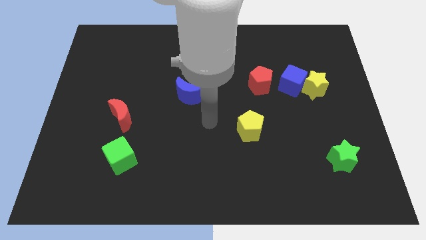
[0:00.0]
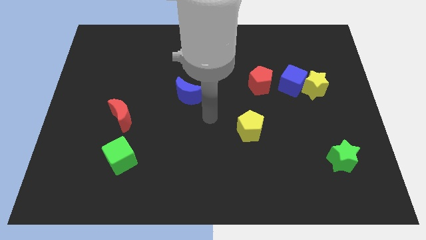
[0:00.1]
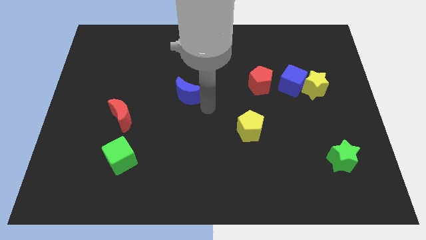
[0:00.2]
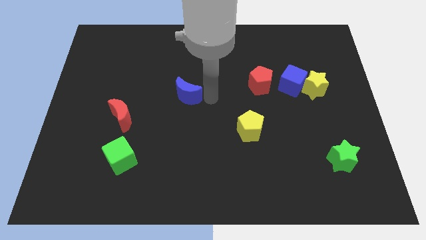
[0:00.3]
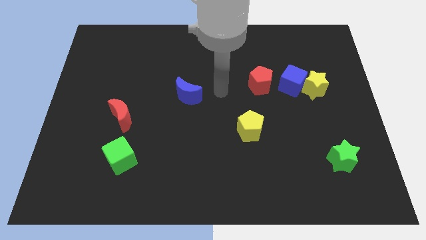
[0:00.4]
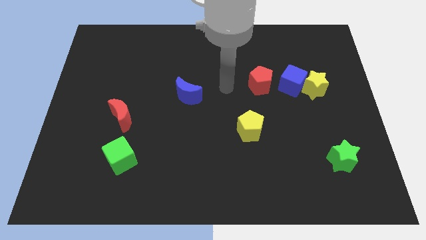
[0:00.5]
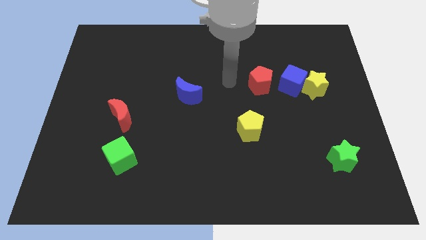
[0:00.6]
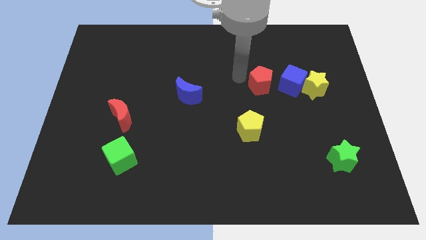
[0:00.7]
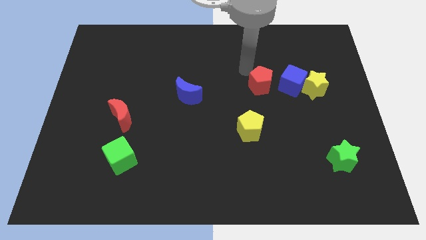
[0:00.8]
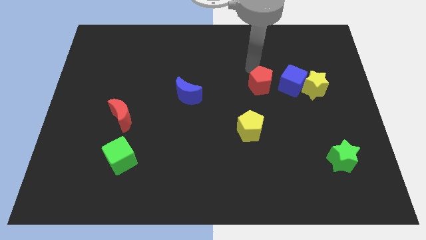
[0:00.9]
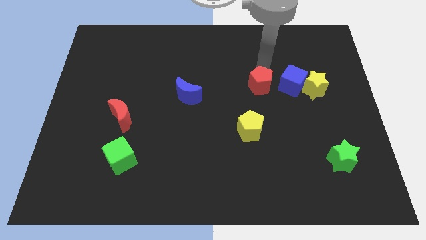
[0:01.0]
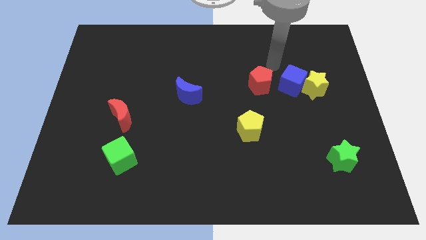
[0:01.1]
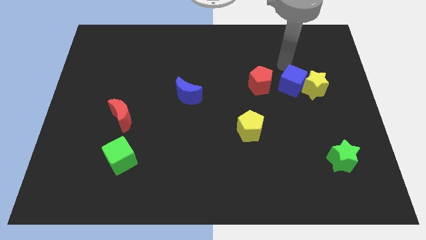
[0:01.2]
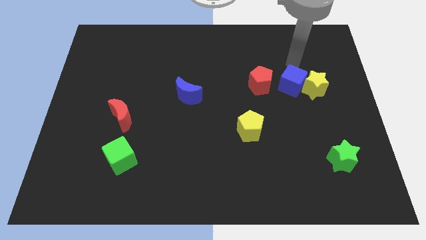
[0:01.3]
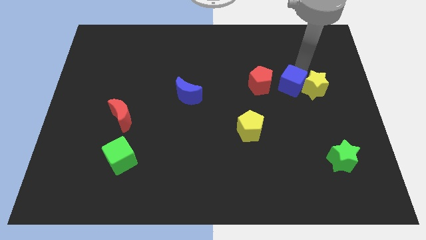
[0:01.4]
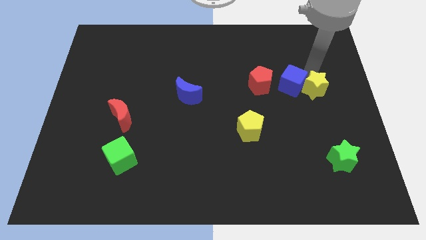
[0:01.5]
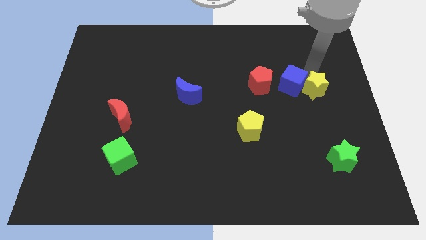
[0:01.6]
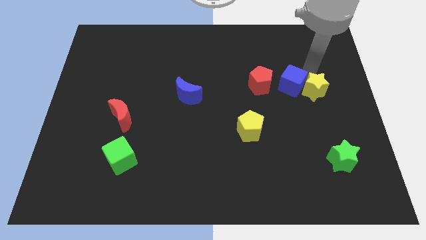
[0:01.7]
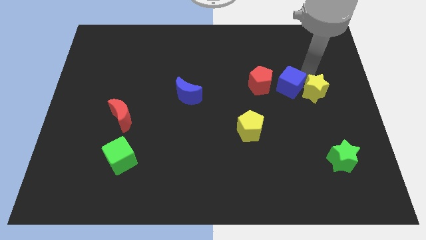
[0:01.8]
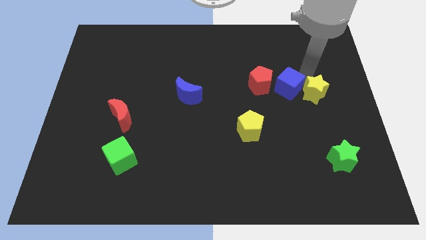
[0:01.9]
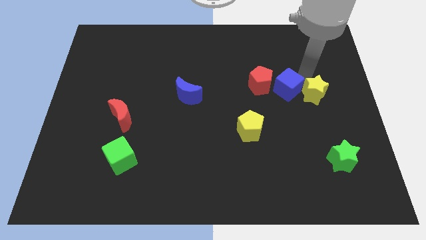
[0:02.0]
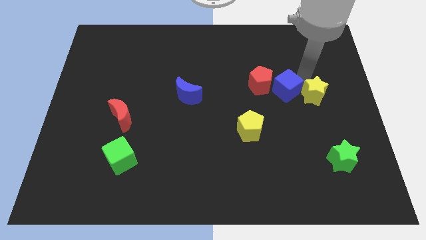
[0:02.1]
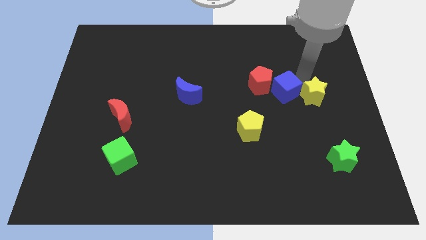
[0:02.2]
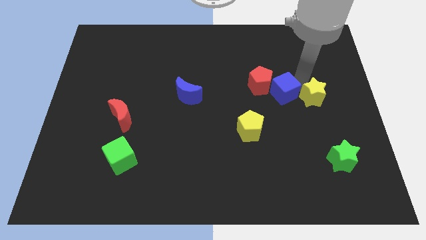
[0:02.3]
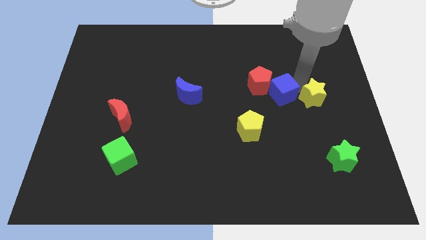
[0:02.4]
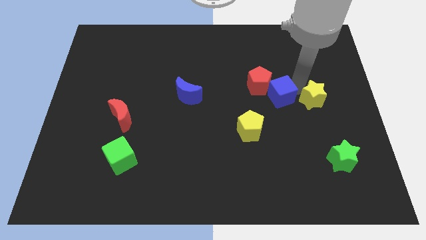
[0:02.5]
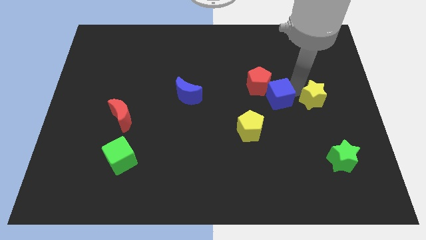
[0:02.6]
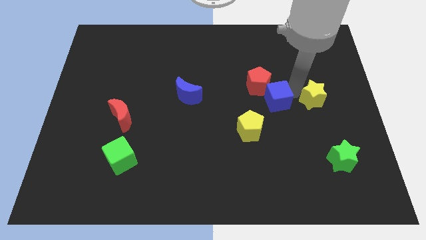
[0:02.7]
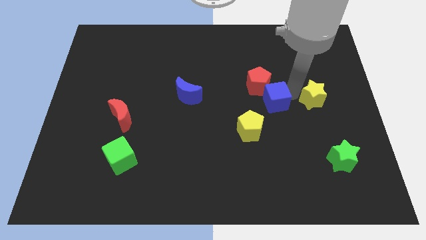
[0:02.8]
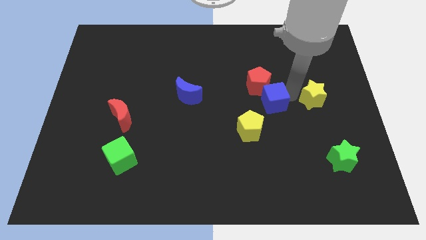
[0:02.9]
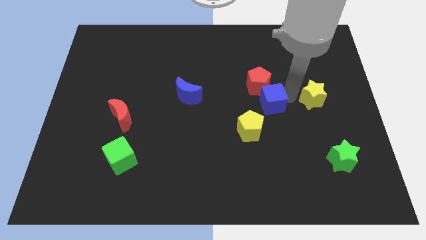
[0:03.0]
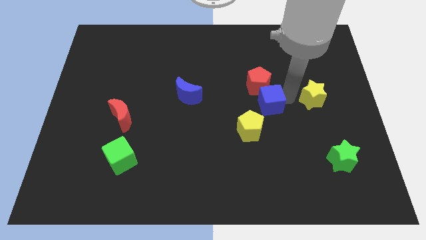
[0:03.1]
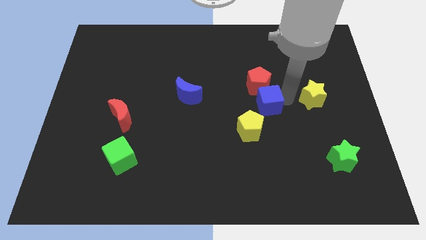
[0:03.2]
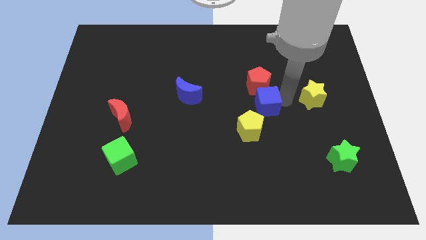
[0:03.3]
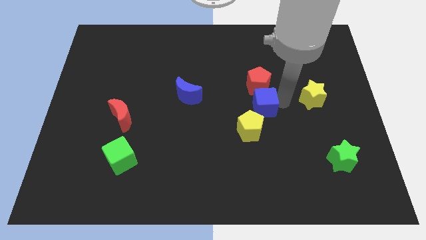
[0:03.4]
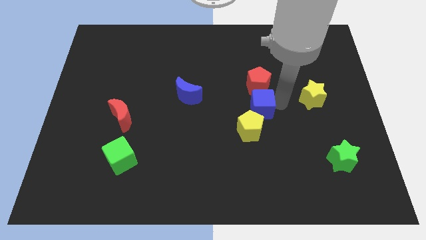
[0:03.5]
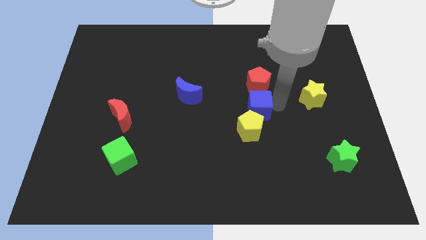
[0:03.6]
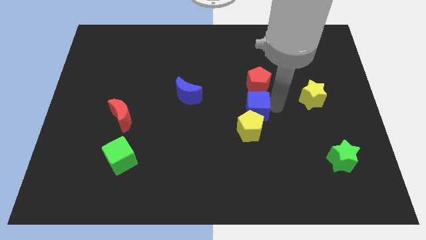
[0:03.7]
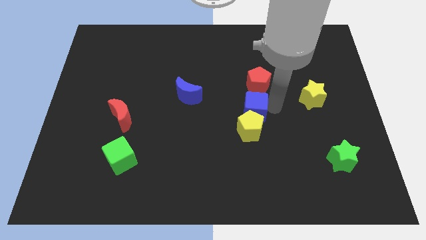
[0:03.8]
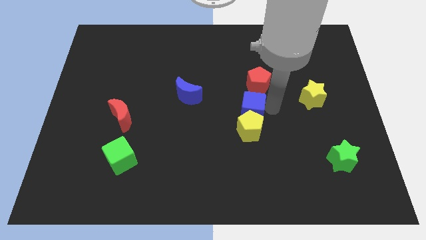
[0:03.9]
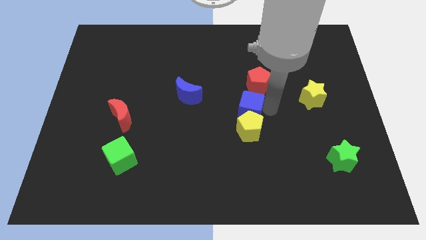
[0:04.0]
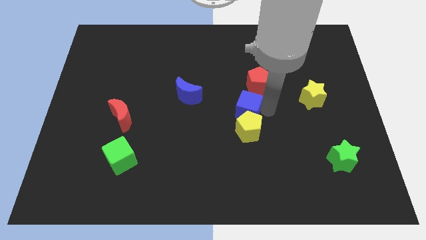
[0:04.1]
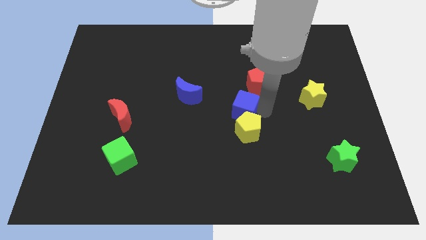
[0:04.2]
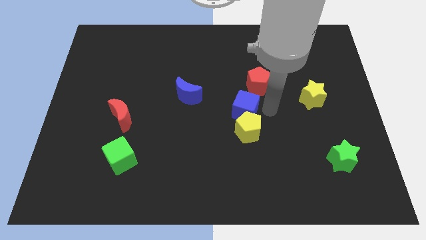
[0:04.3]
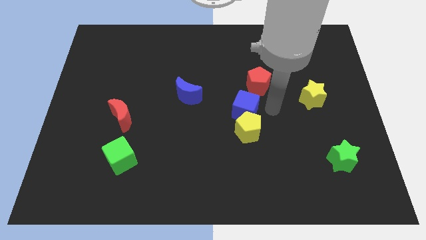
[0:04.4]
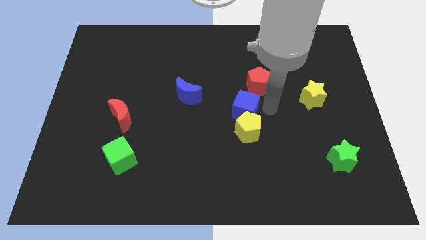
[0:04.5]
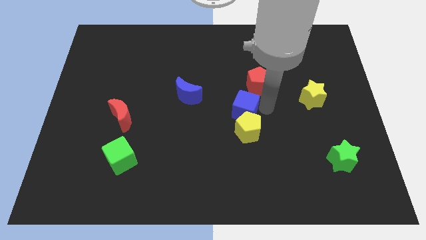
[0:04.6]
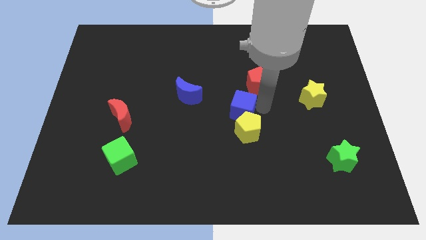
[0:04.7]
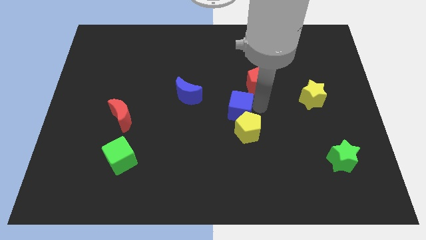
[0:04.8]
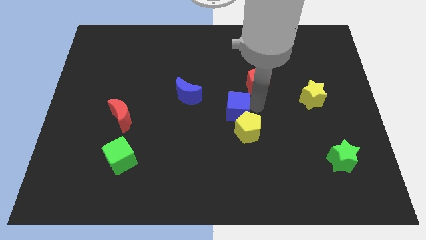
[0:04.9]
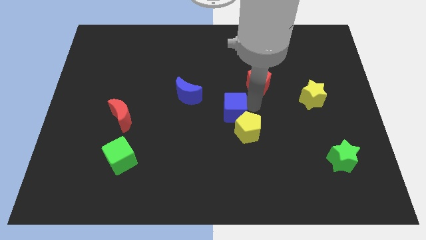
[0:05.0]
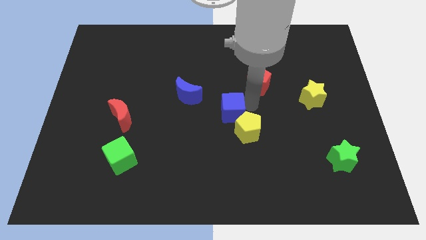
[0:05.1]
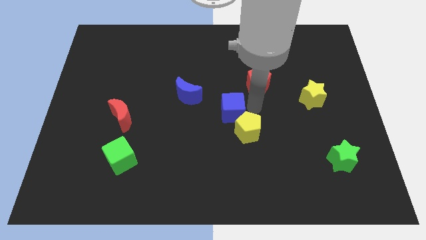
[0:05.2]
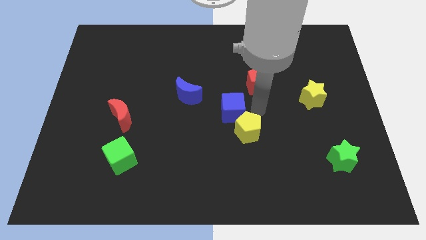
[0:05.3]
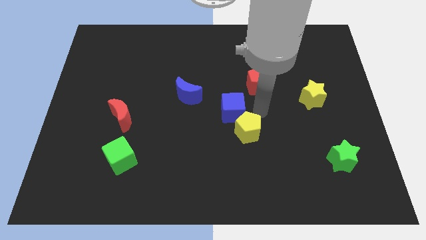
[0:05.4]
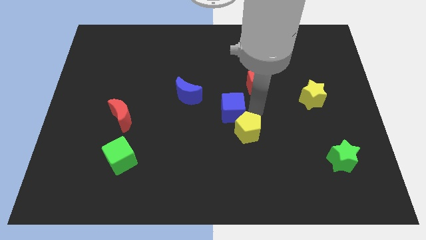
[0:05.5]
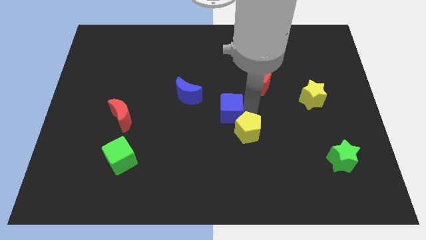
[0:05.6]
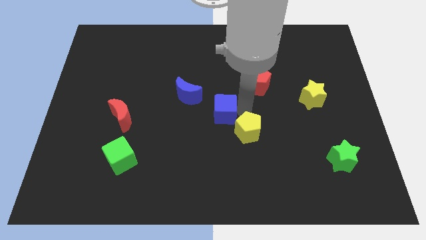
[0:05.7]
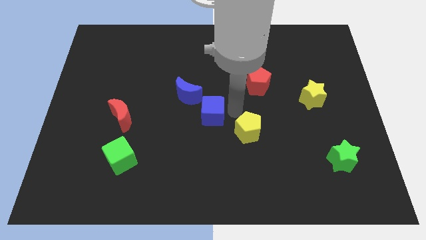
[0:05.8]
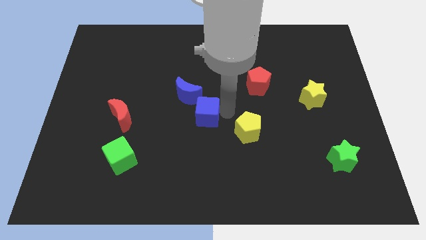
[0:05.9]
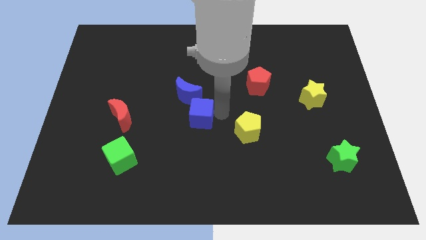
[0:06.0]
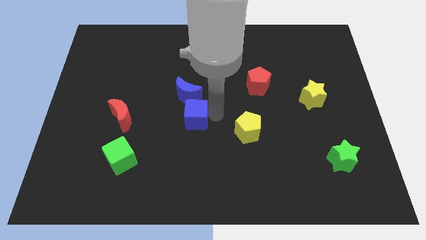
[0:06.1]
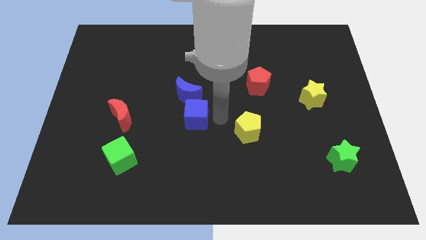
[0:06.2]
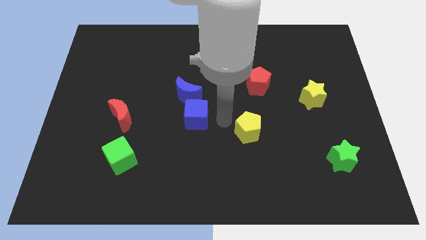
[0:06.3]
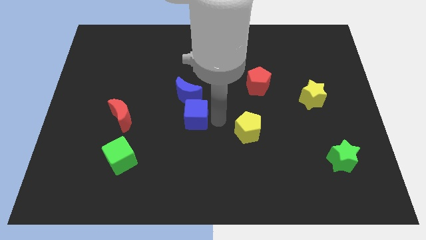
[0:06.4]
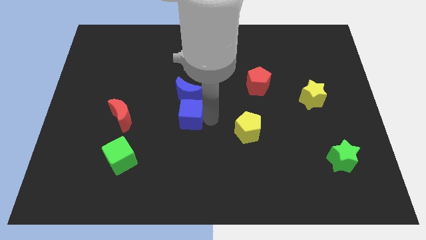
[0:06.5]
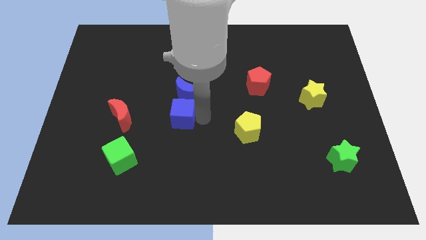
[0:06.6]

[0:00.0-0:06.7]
put the blue cube to the bottom left of the blue moon
